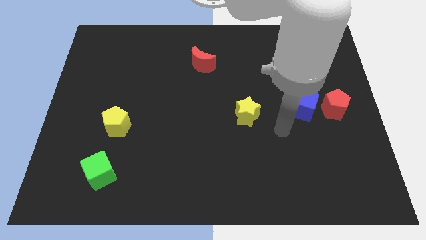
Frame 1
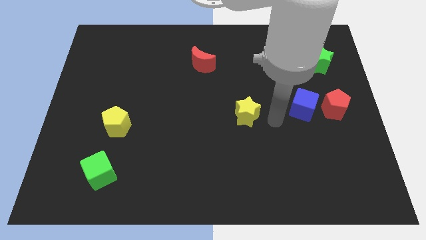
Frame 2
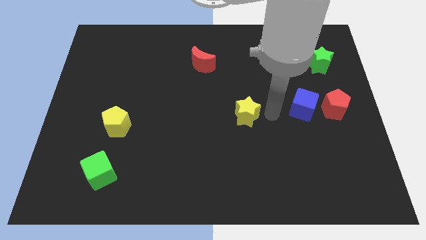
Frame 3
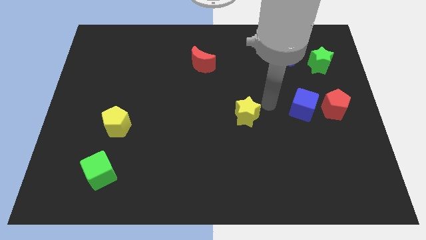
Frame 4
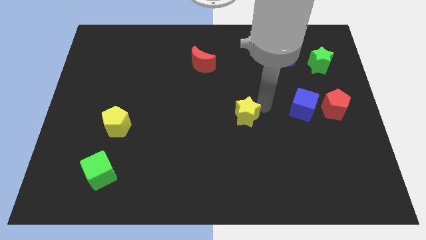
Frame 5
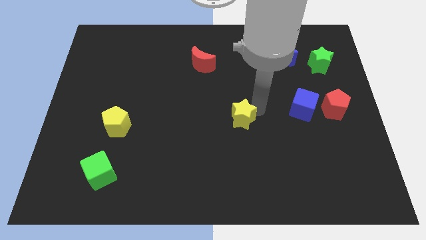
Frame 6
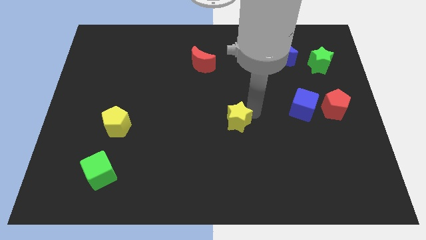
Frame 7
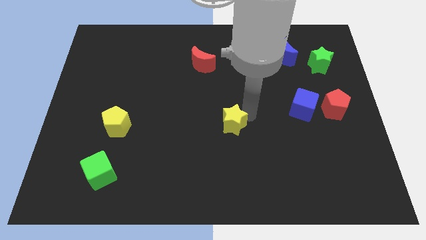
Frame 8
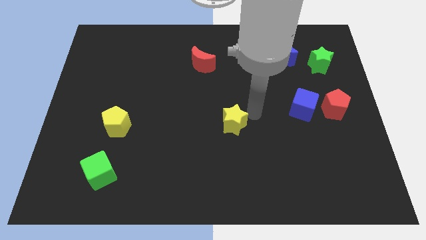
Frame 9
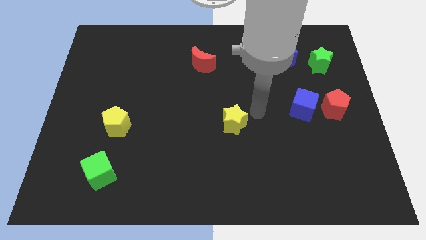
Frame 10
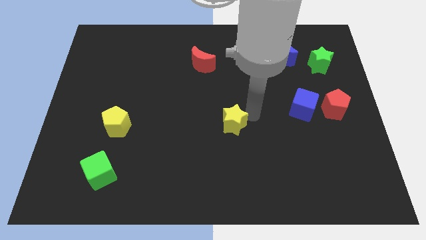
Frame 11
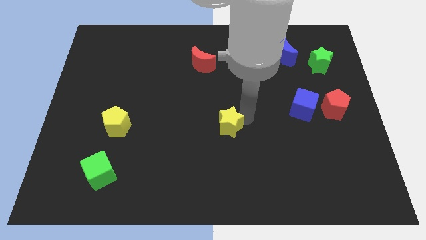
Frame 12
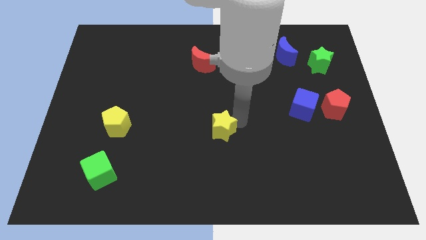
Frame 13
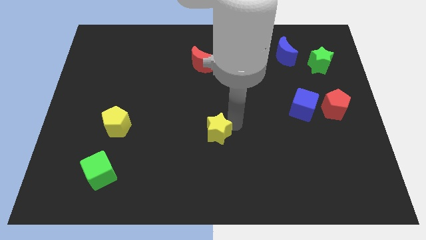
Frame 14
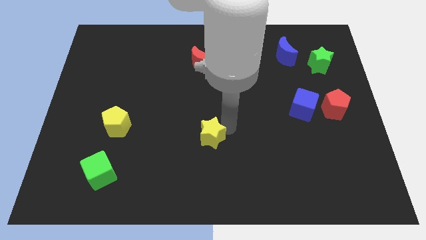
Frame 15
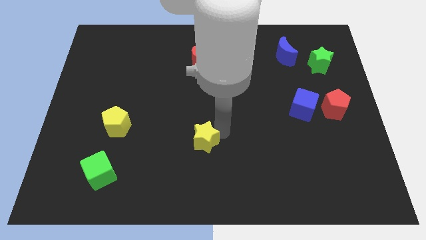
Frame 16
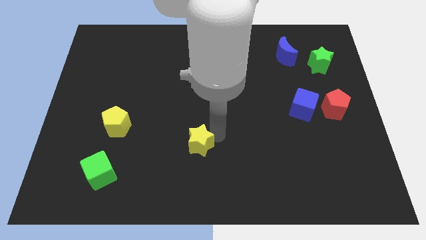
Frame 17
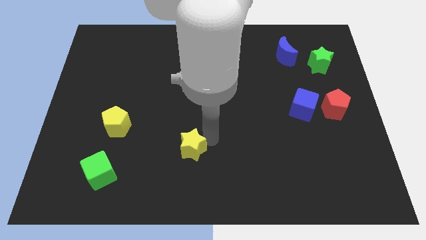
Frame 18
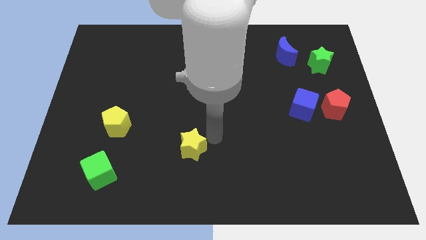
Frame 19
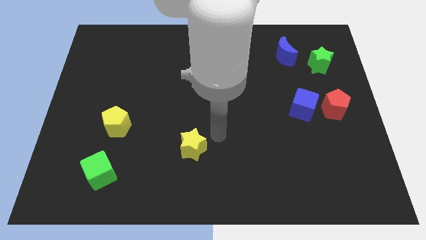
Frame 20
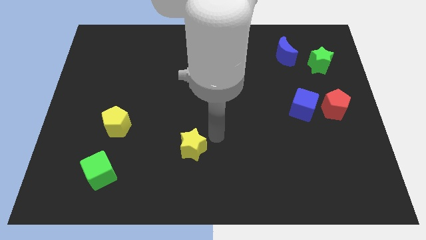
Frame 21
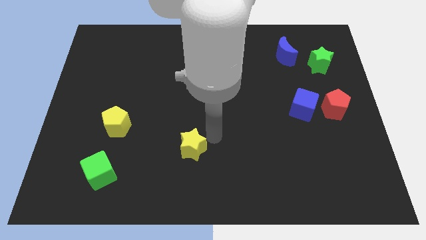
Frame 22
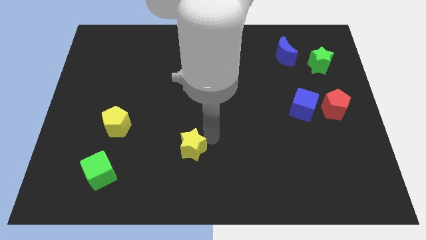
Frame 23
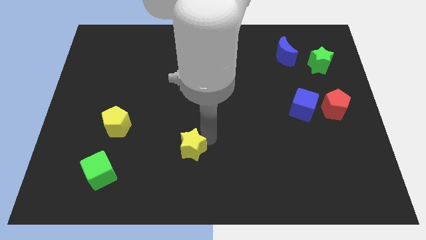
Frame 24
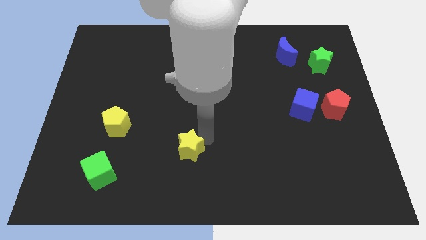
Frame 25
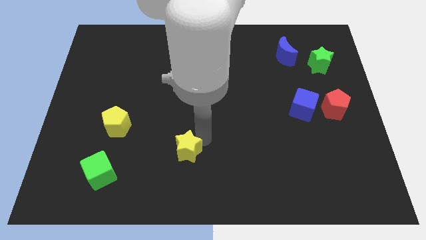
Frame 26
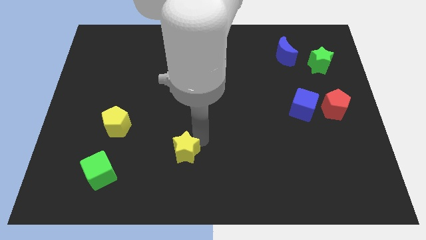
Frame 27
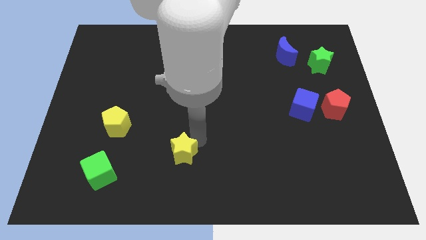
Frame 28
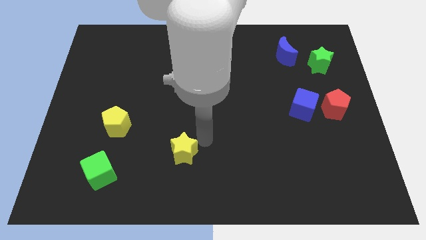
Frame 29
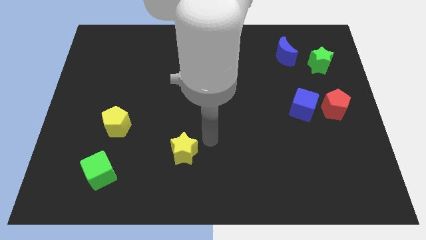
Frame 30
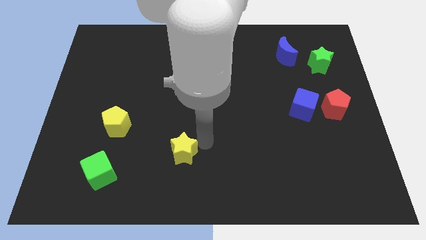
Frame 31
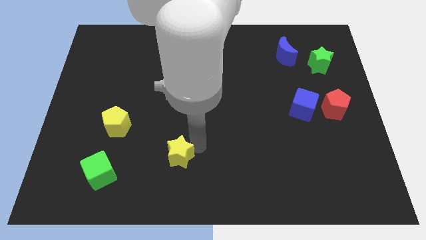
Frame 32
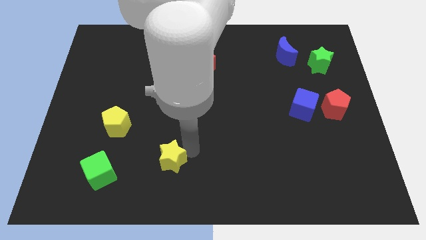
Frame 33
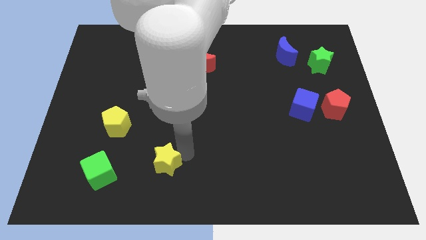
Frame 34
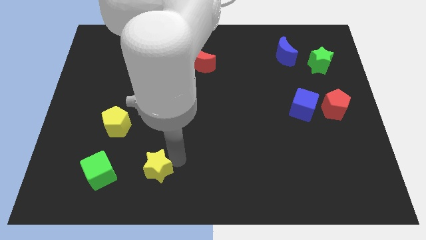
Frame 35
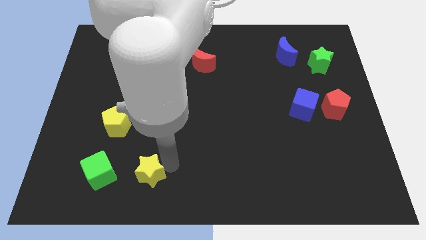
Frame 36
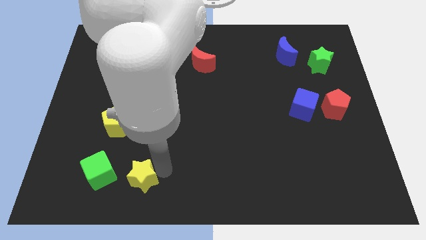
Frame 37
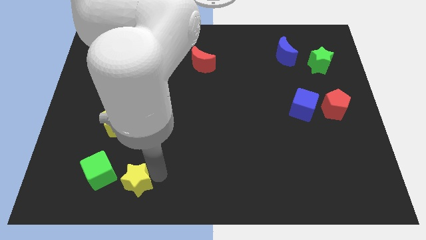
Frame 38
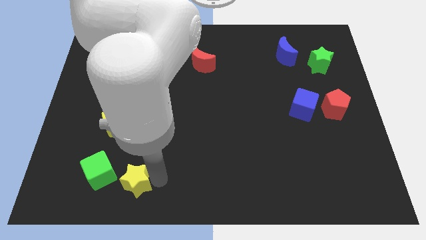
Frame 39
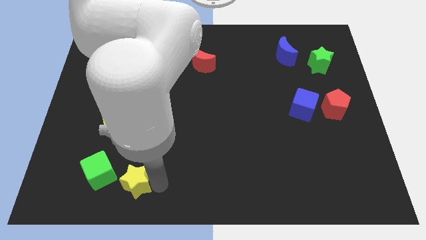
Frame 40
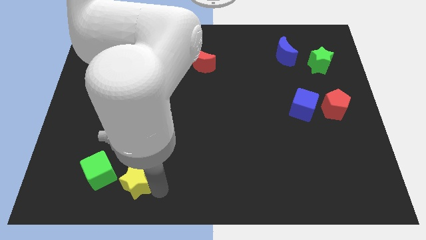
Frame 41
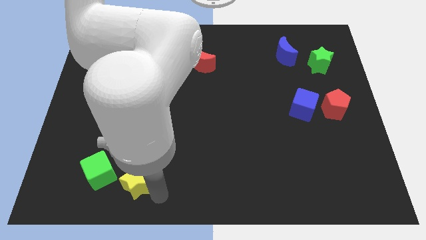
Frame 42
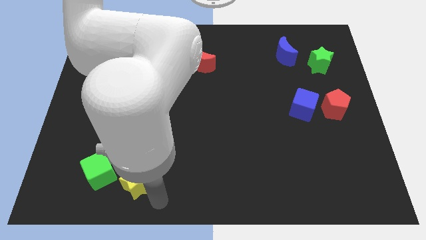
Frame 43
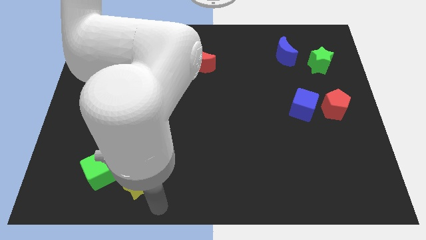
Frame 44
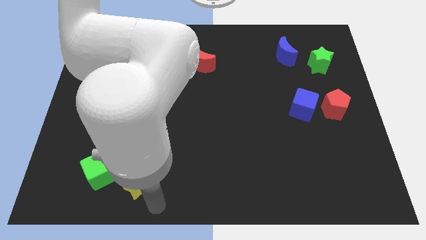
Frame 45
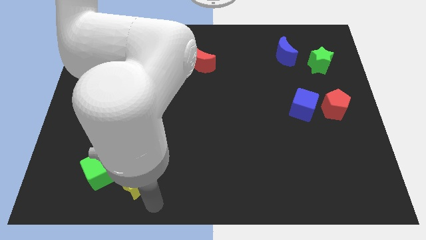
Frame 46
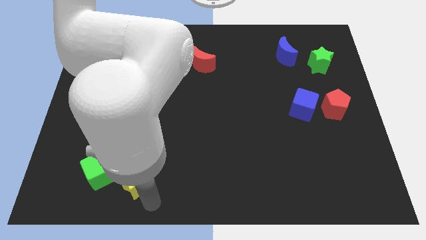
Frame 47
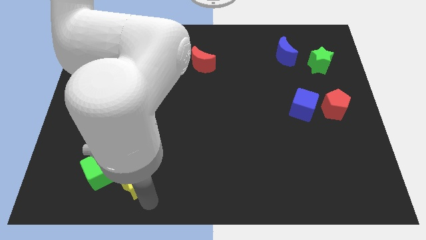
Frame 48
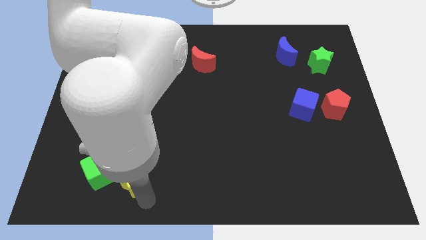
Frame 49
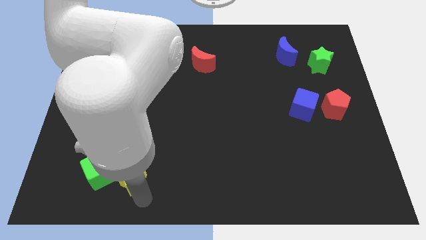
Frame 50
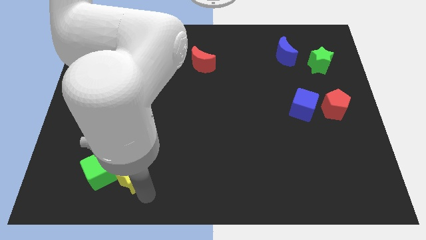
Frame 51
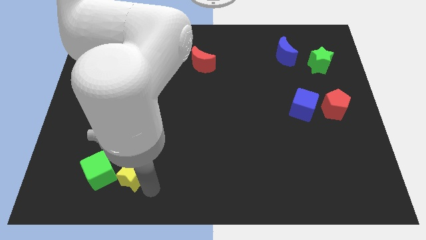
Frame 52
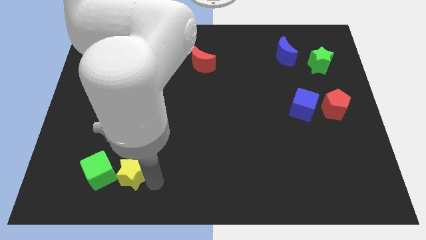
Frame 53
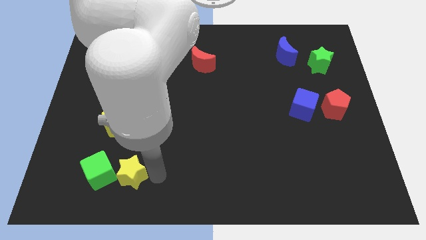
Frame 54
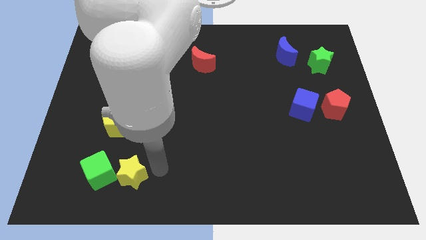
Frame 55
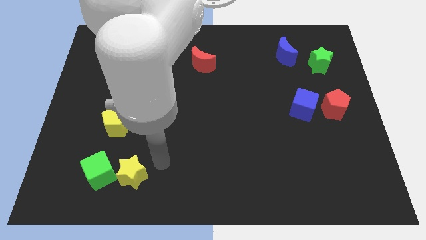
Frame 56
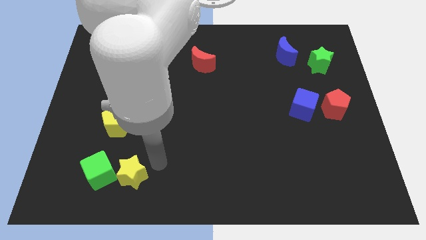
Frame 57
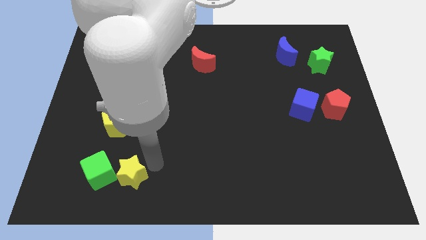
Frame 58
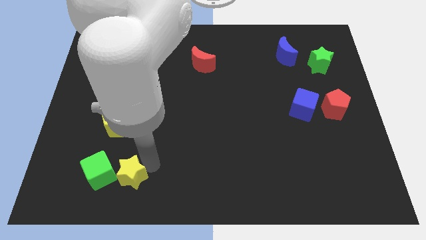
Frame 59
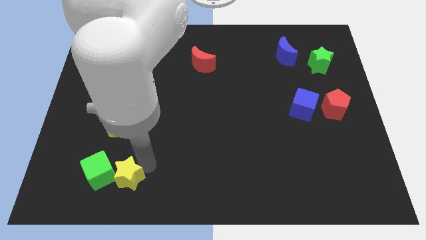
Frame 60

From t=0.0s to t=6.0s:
slide the yellow star to the bottom side of the yellow pentagon

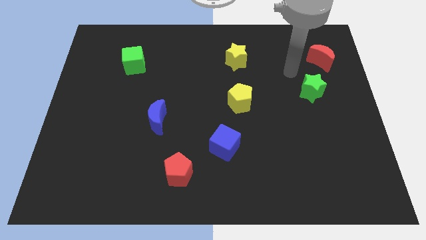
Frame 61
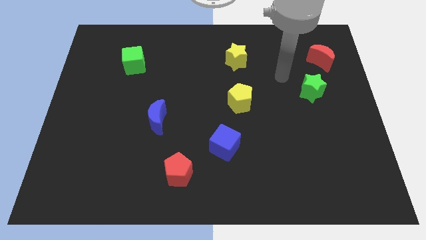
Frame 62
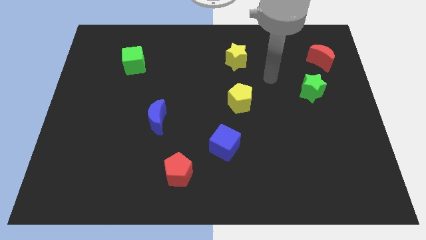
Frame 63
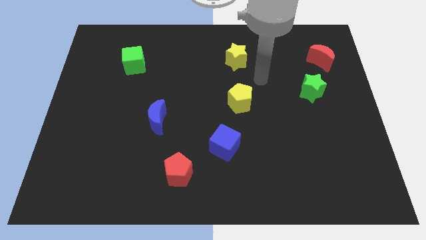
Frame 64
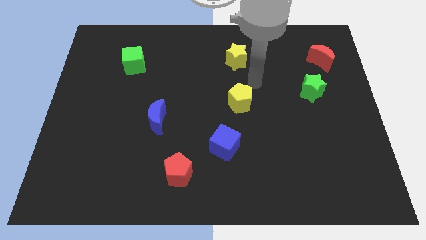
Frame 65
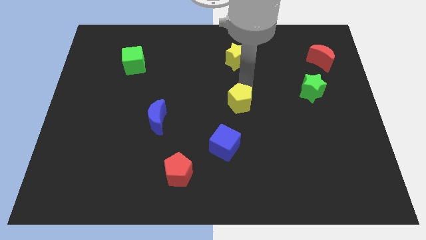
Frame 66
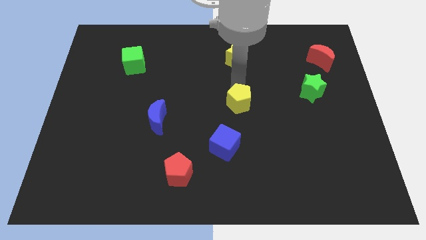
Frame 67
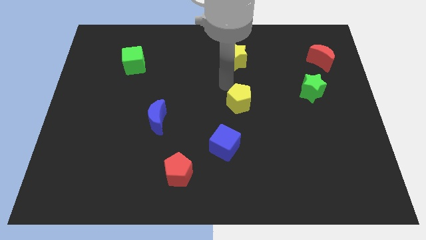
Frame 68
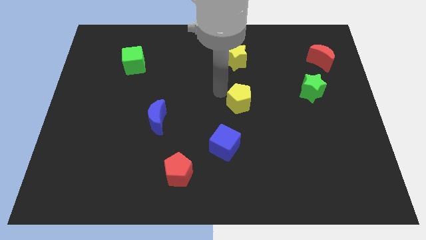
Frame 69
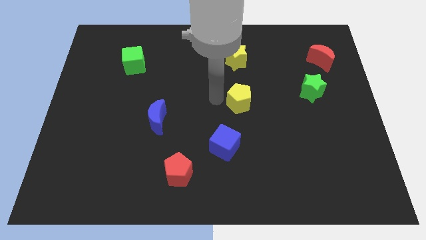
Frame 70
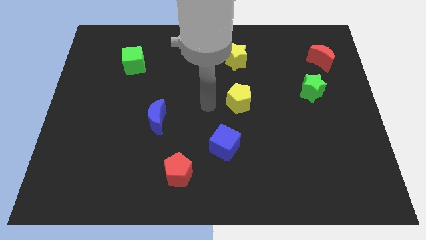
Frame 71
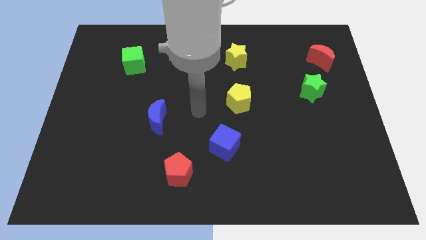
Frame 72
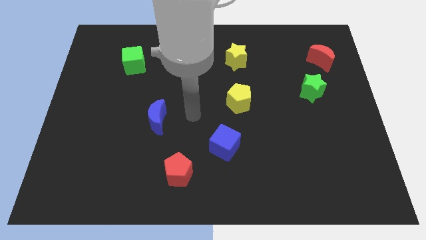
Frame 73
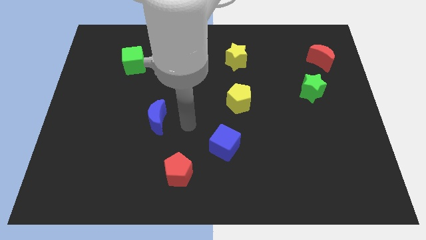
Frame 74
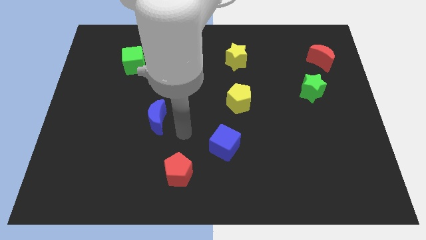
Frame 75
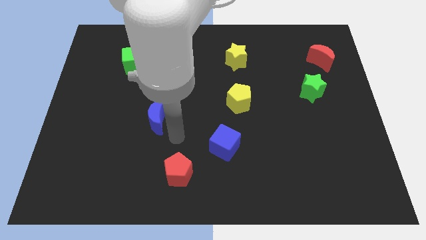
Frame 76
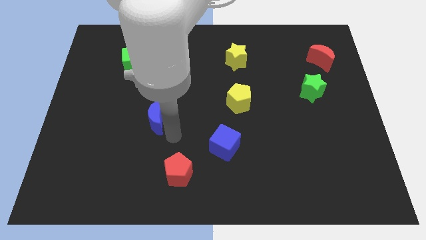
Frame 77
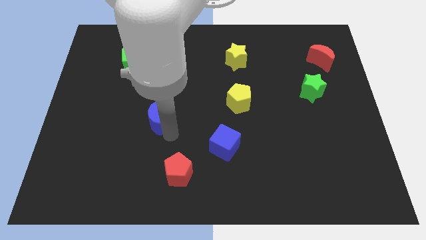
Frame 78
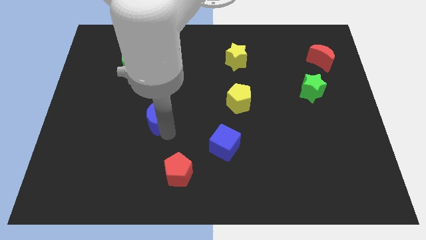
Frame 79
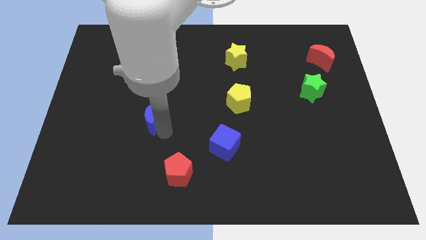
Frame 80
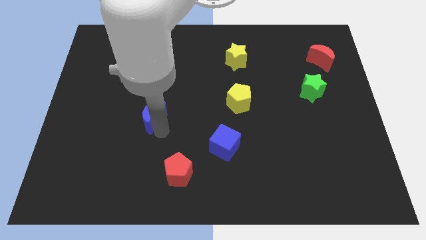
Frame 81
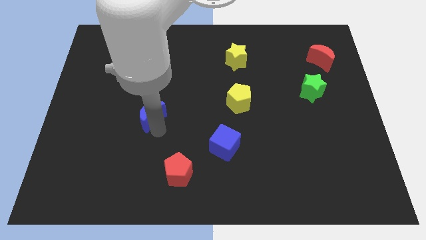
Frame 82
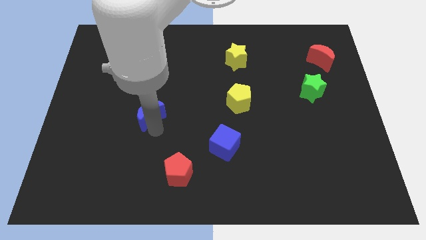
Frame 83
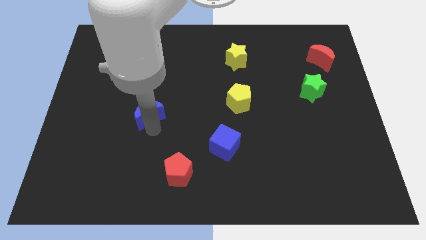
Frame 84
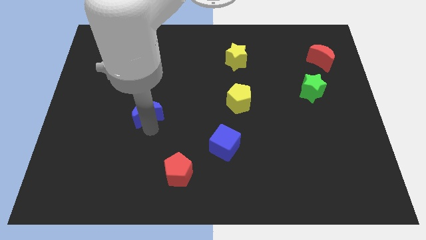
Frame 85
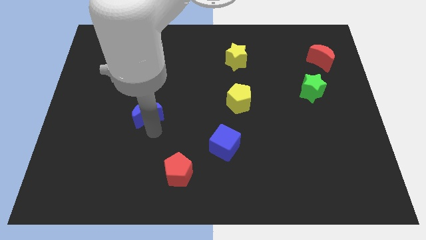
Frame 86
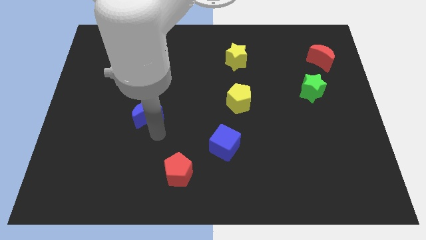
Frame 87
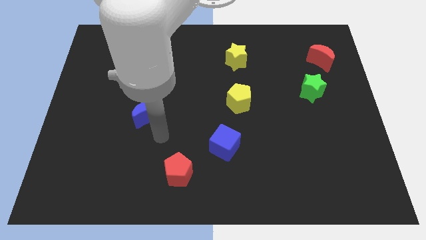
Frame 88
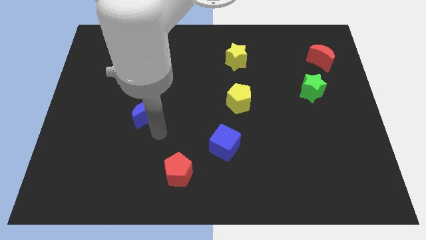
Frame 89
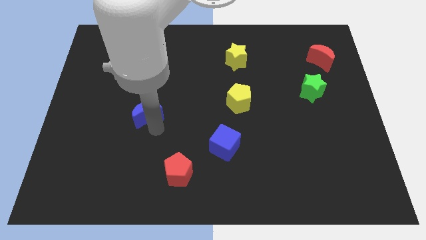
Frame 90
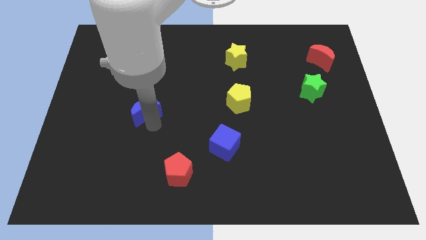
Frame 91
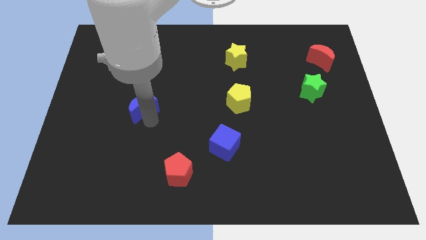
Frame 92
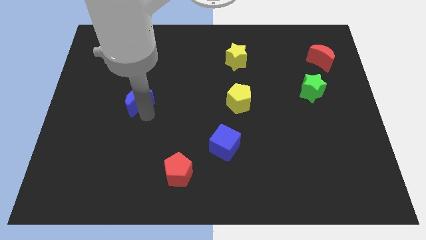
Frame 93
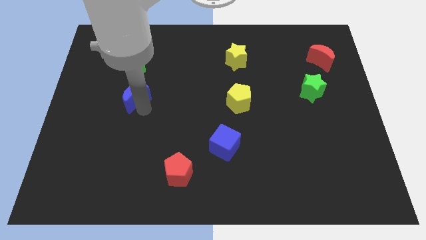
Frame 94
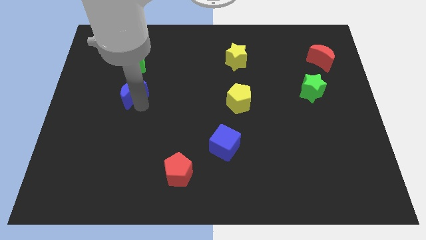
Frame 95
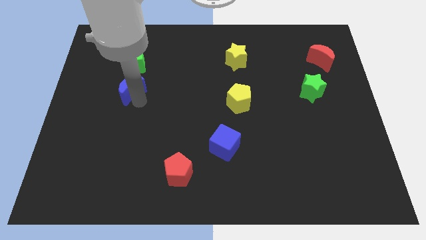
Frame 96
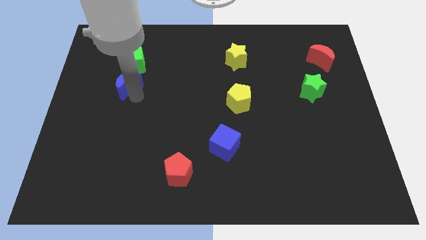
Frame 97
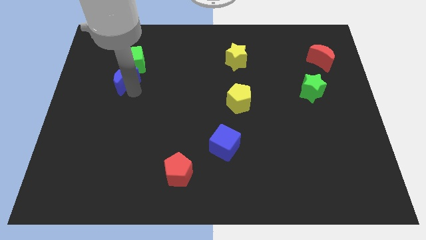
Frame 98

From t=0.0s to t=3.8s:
push the blue moon to the bottom left side of the green cube
